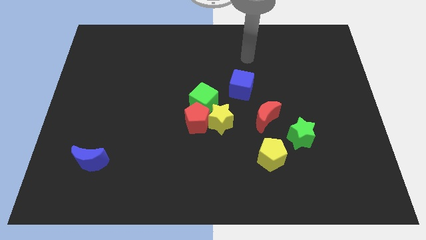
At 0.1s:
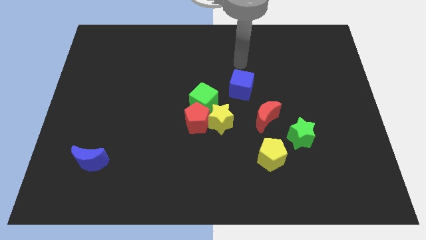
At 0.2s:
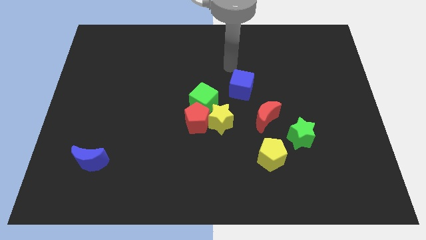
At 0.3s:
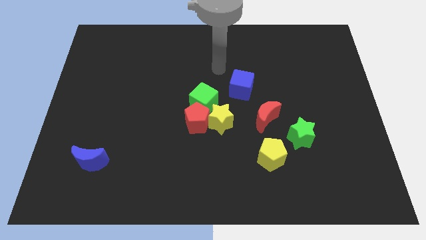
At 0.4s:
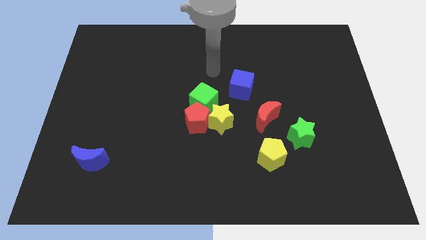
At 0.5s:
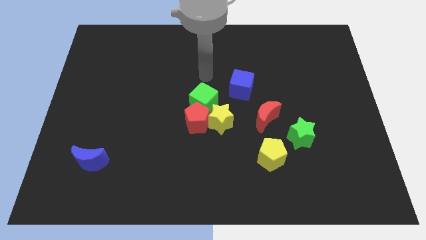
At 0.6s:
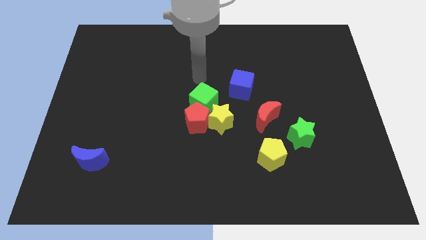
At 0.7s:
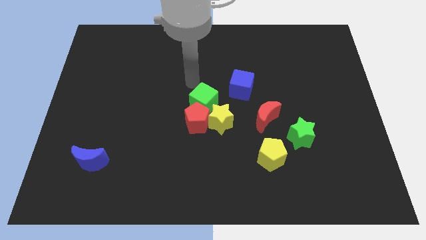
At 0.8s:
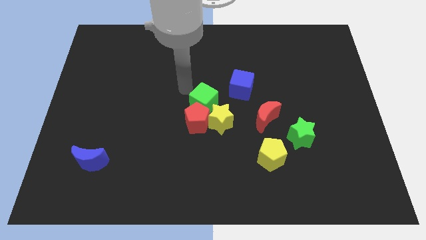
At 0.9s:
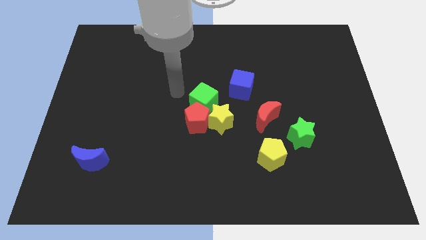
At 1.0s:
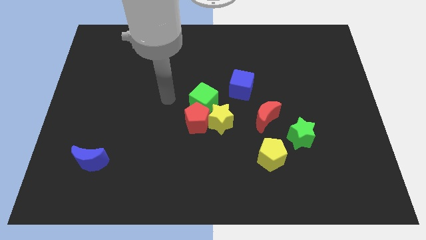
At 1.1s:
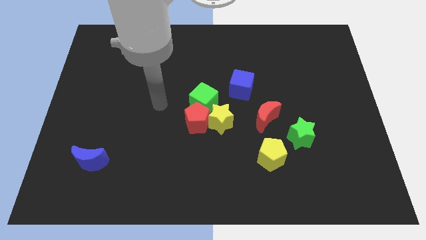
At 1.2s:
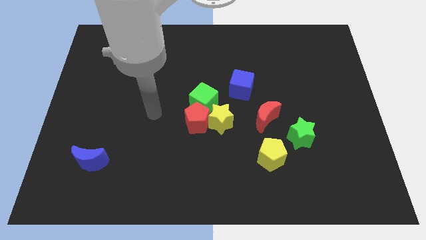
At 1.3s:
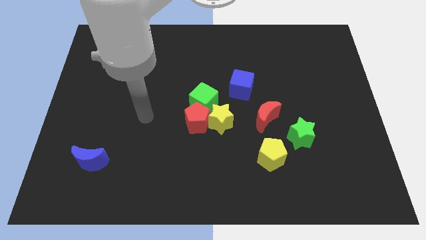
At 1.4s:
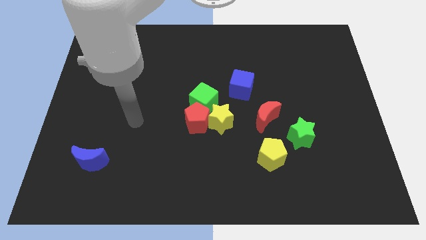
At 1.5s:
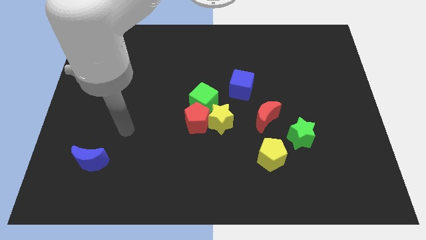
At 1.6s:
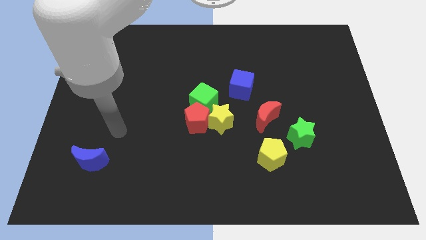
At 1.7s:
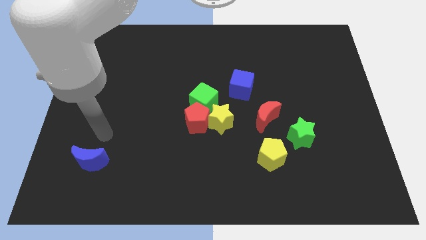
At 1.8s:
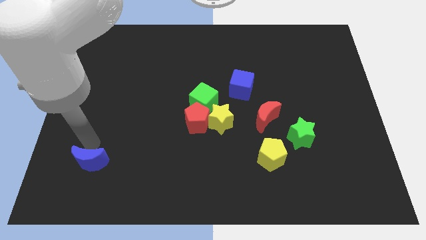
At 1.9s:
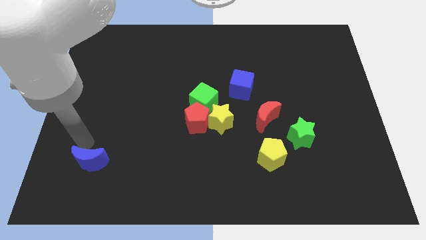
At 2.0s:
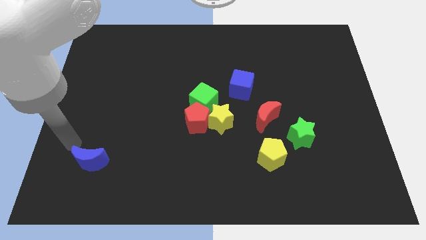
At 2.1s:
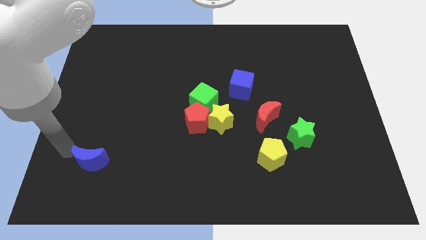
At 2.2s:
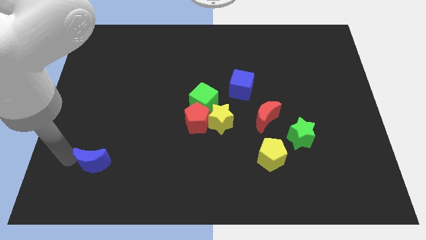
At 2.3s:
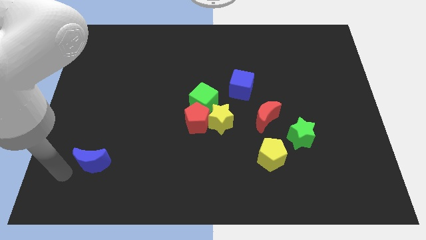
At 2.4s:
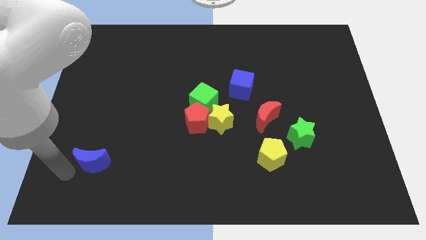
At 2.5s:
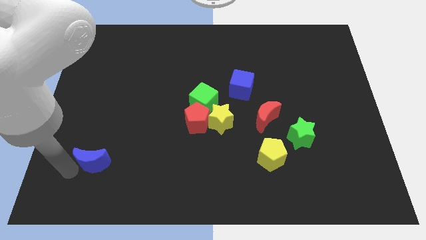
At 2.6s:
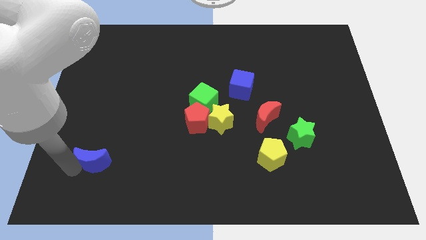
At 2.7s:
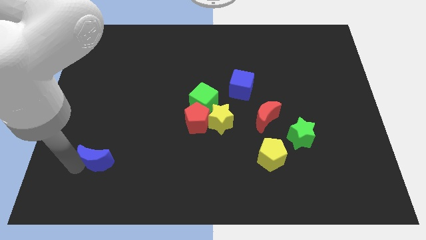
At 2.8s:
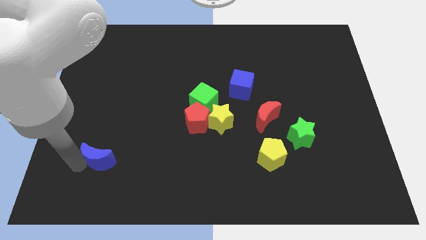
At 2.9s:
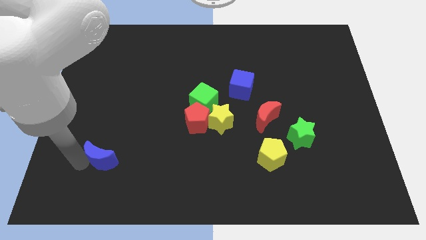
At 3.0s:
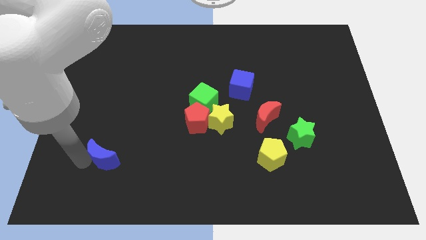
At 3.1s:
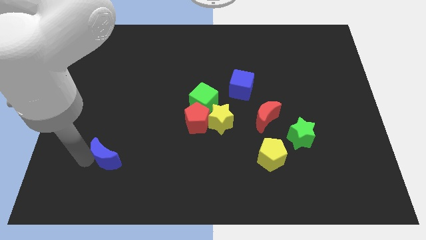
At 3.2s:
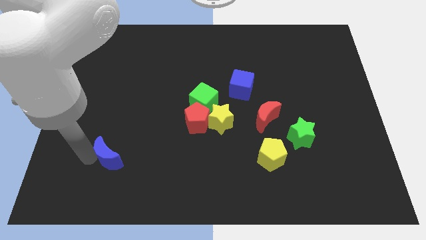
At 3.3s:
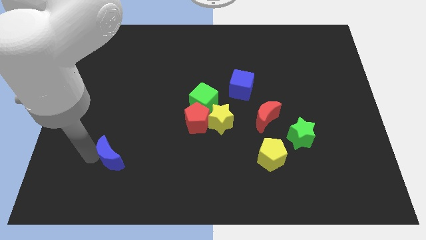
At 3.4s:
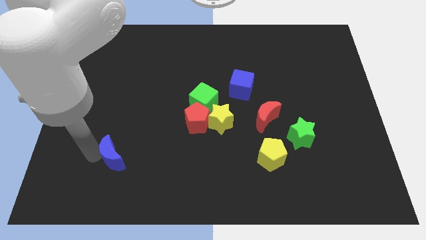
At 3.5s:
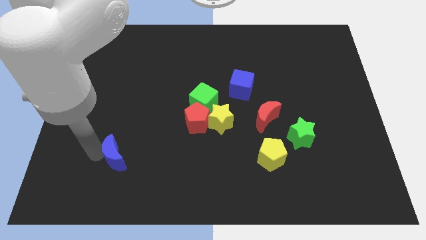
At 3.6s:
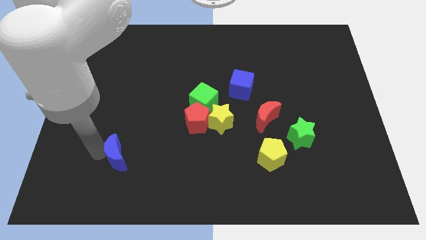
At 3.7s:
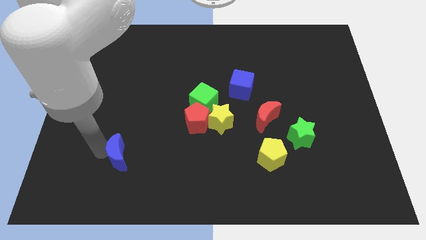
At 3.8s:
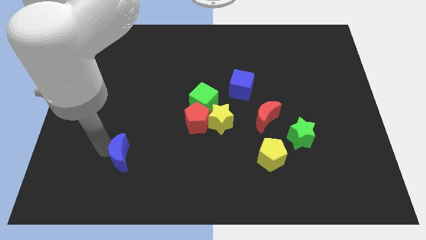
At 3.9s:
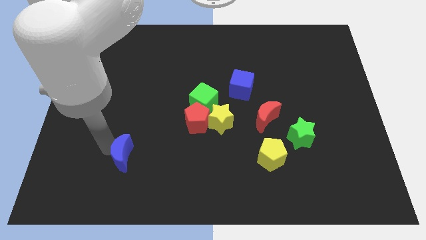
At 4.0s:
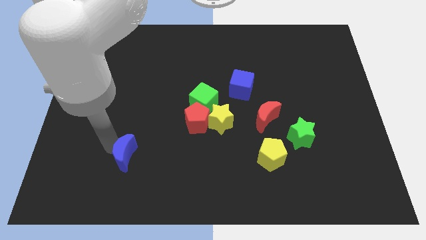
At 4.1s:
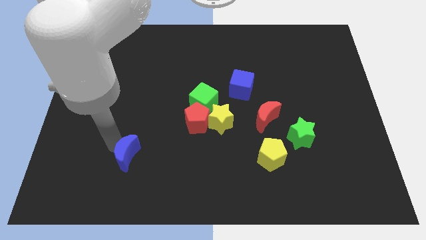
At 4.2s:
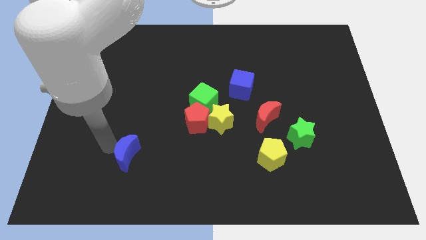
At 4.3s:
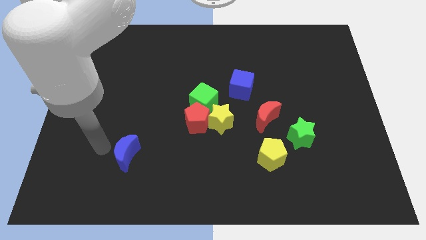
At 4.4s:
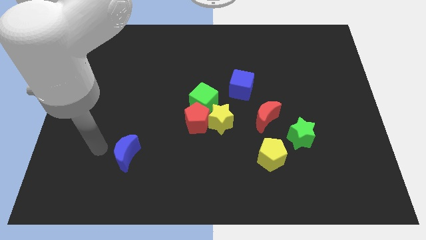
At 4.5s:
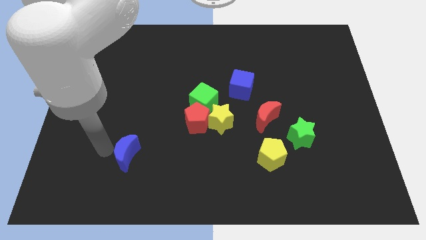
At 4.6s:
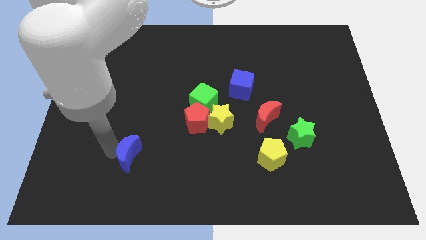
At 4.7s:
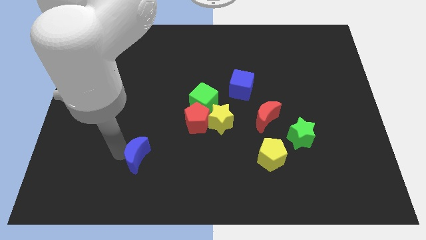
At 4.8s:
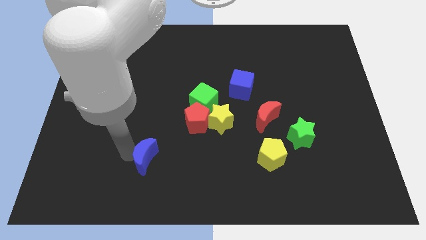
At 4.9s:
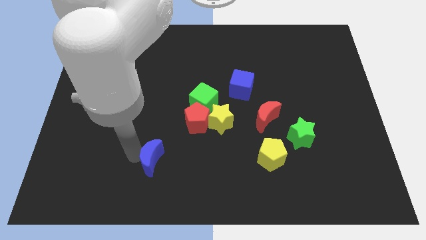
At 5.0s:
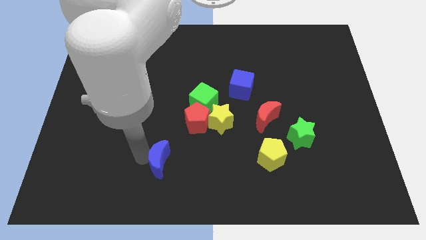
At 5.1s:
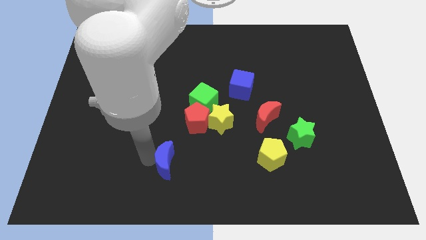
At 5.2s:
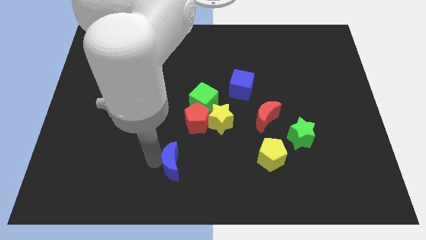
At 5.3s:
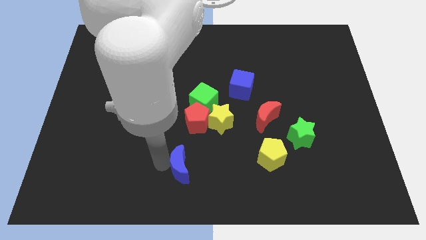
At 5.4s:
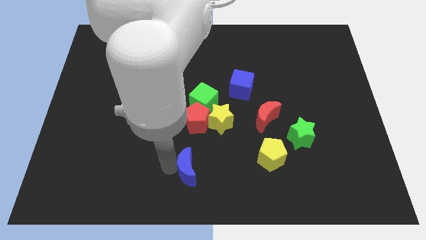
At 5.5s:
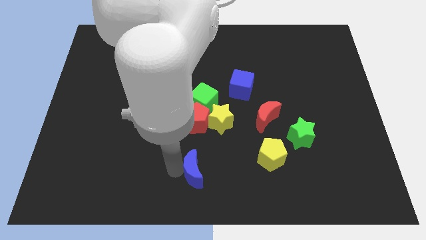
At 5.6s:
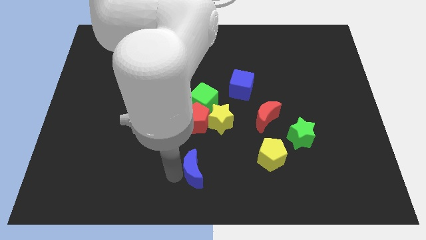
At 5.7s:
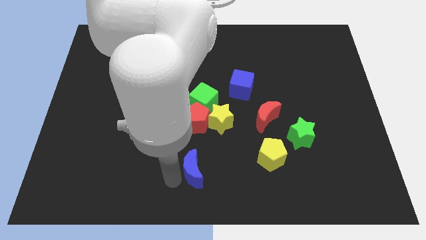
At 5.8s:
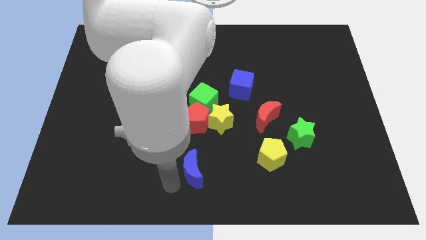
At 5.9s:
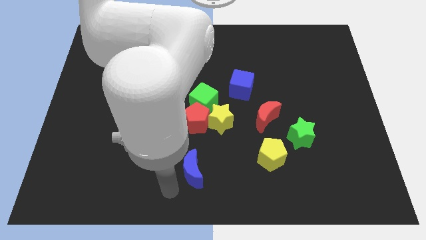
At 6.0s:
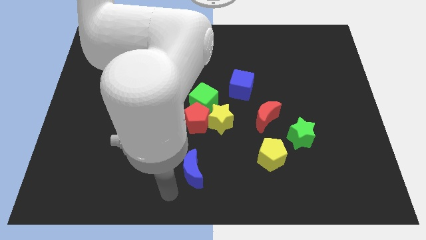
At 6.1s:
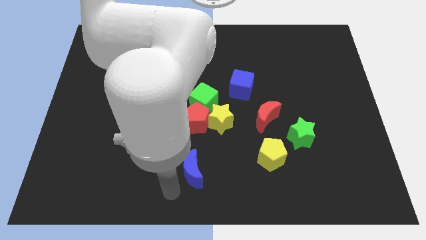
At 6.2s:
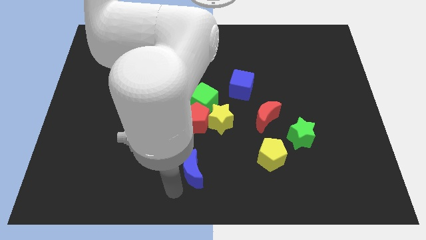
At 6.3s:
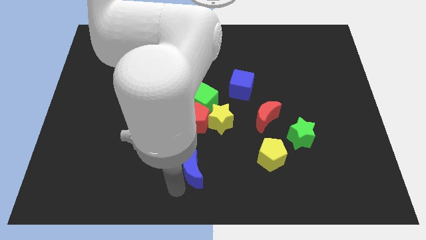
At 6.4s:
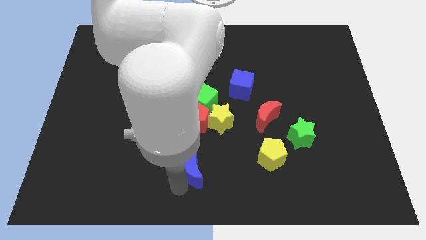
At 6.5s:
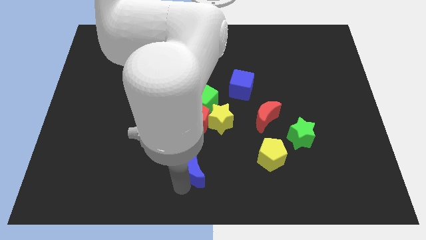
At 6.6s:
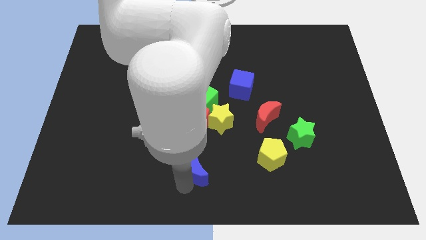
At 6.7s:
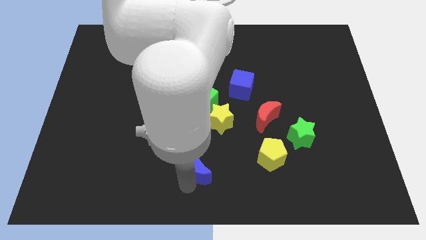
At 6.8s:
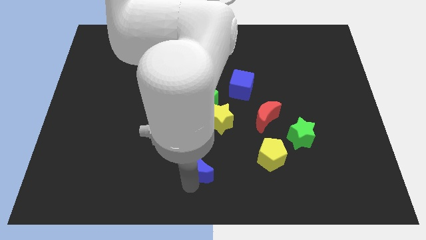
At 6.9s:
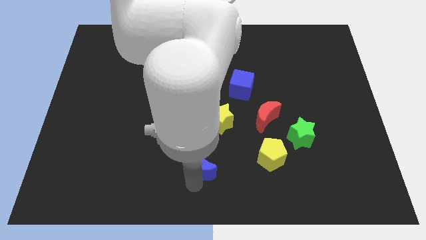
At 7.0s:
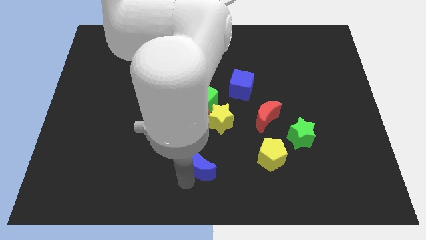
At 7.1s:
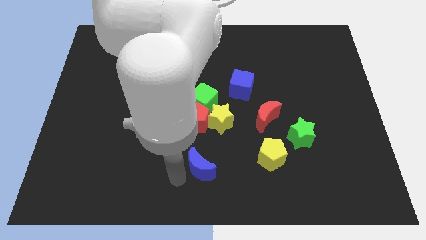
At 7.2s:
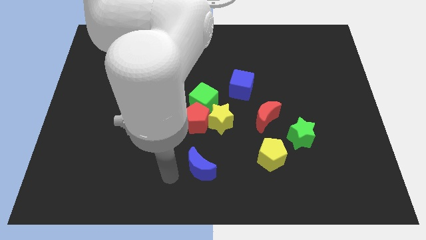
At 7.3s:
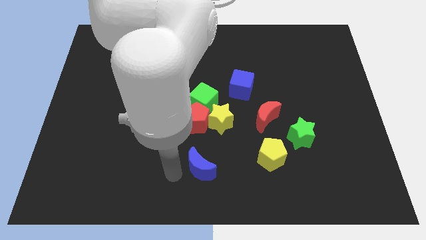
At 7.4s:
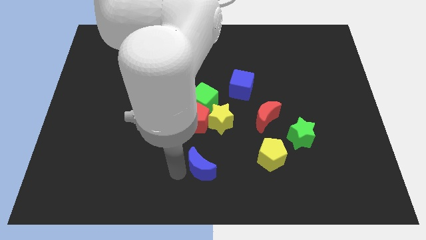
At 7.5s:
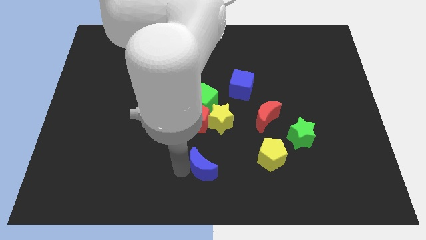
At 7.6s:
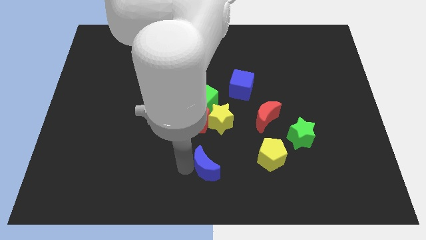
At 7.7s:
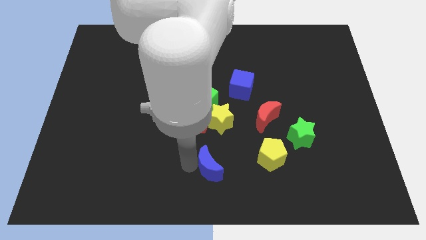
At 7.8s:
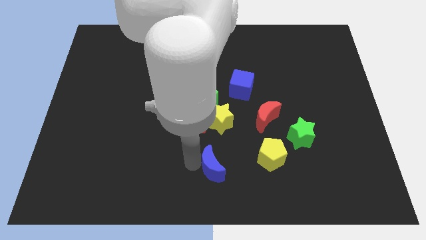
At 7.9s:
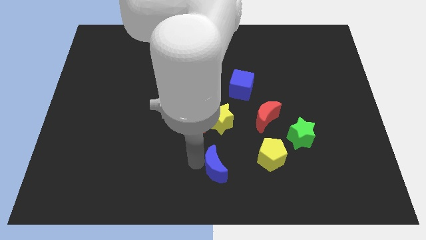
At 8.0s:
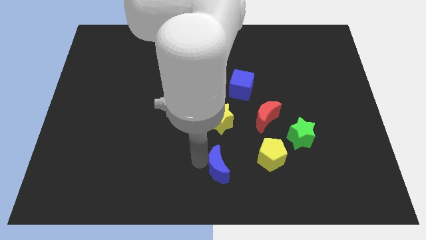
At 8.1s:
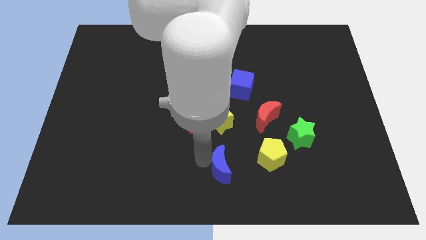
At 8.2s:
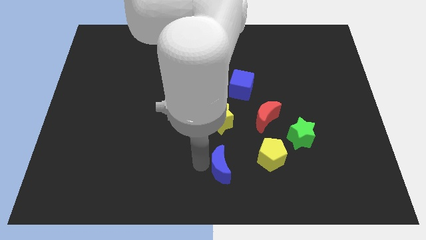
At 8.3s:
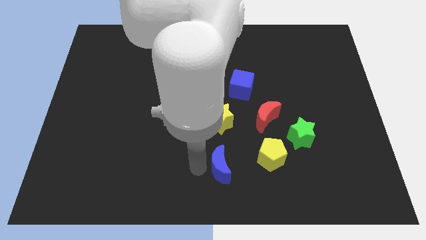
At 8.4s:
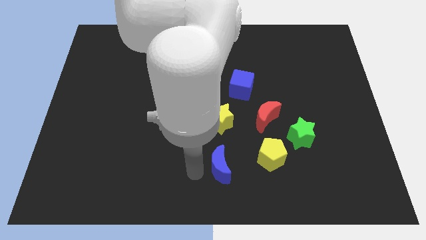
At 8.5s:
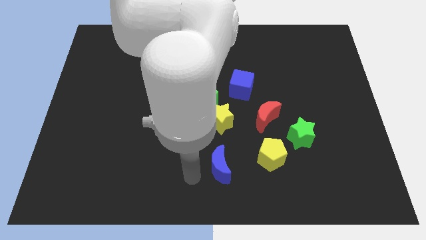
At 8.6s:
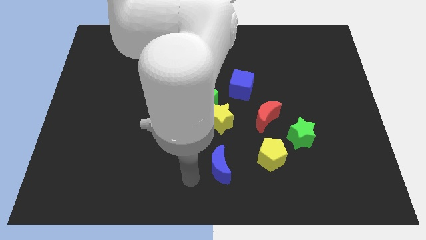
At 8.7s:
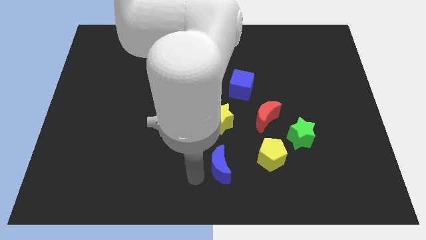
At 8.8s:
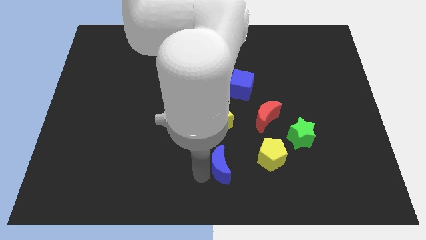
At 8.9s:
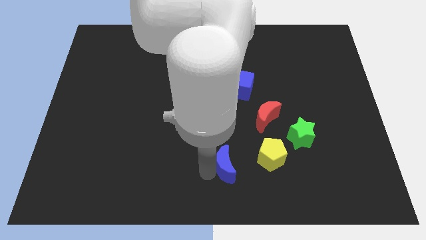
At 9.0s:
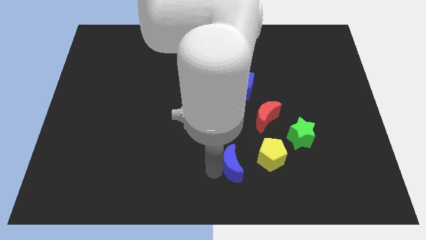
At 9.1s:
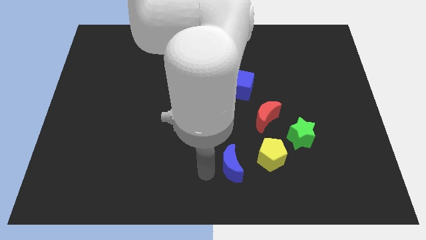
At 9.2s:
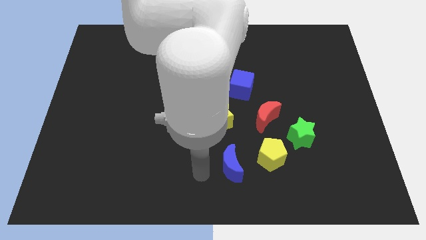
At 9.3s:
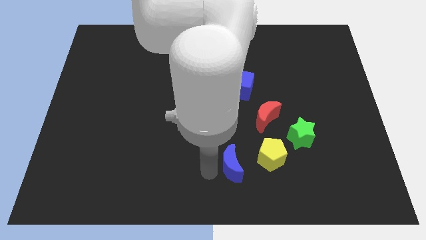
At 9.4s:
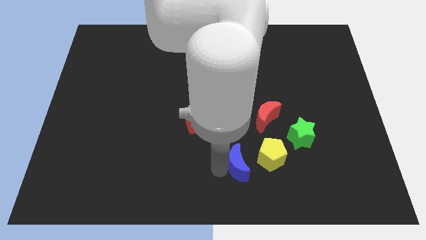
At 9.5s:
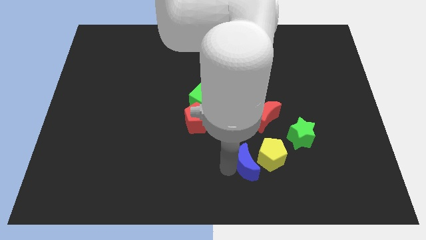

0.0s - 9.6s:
push the blue moon close to the yellow pentagon
